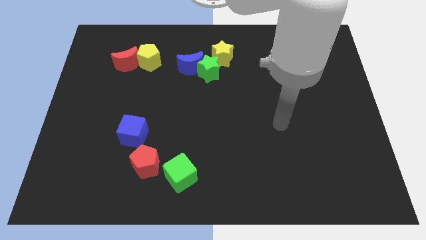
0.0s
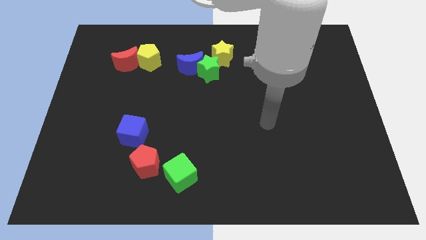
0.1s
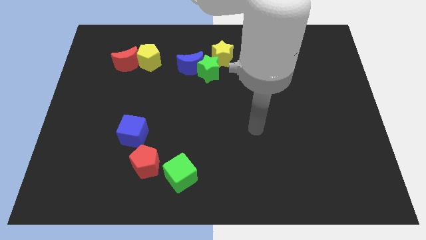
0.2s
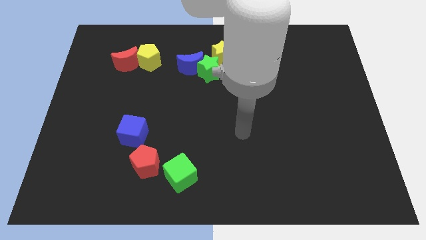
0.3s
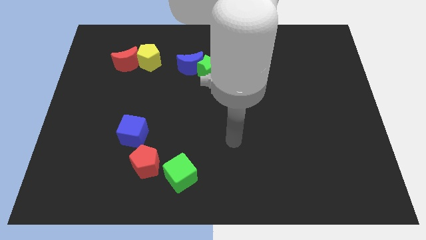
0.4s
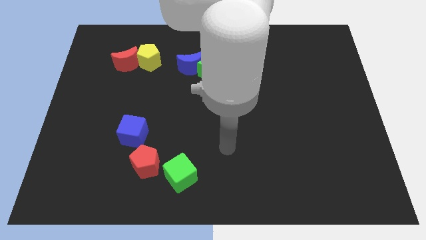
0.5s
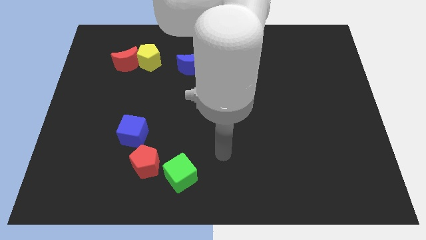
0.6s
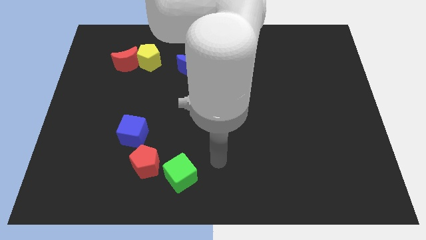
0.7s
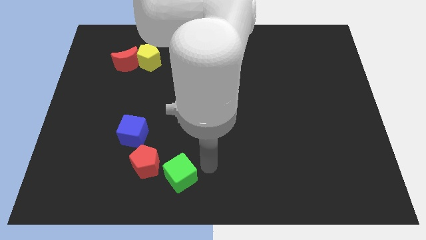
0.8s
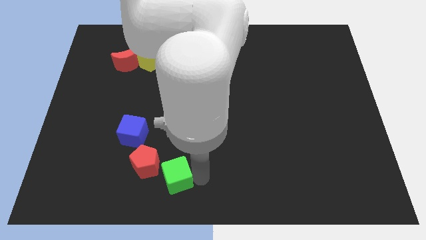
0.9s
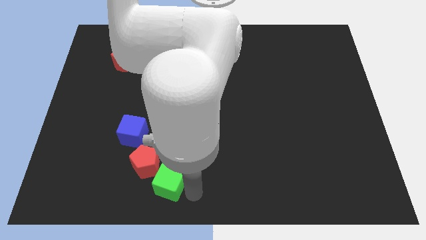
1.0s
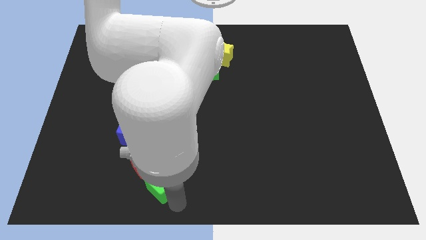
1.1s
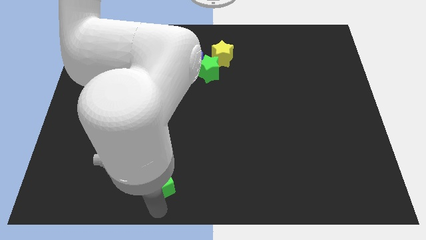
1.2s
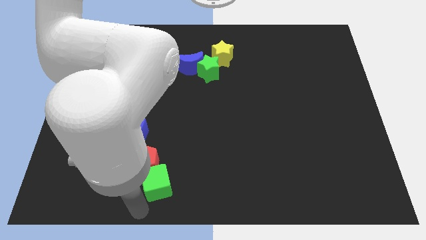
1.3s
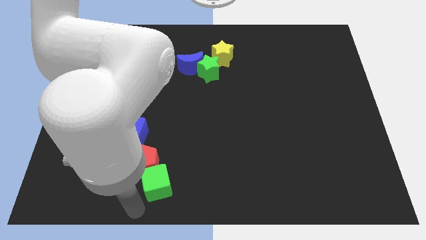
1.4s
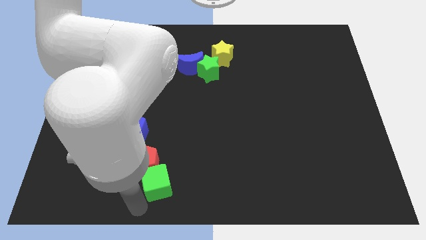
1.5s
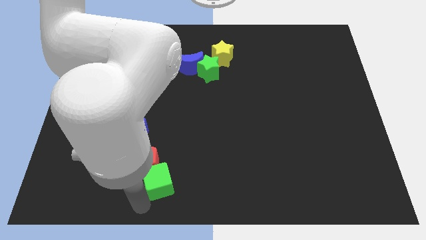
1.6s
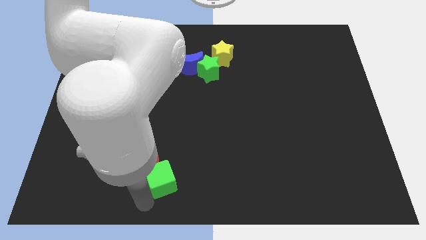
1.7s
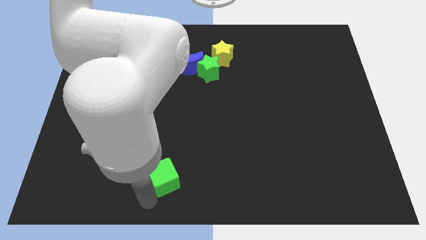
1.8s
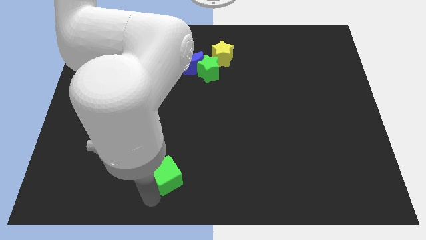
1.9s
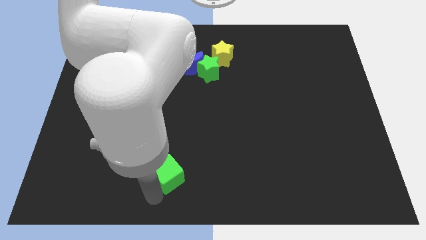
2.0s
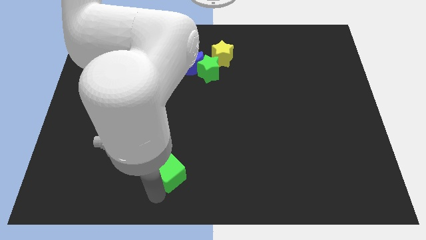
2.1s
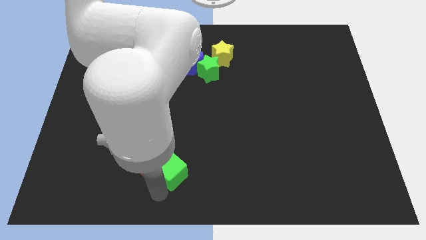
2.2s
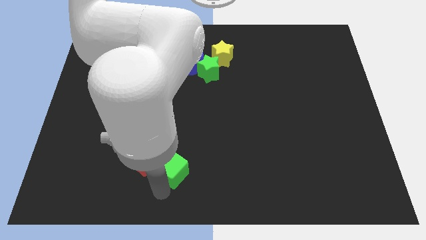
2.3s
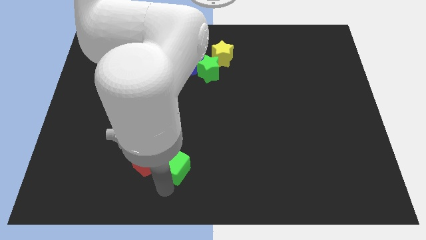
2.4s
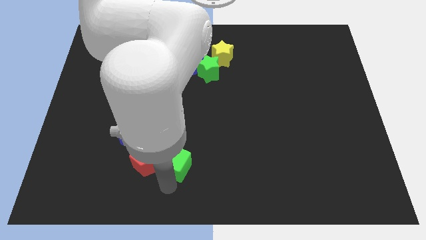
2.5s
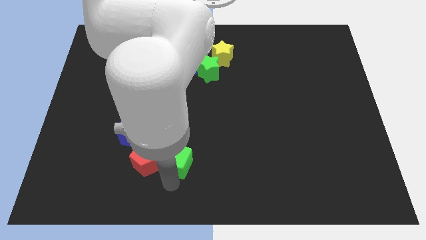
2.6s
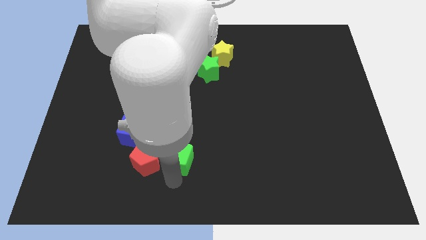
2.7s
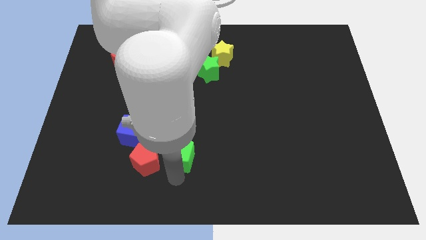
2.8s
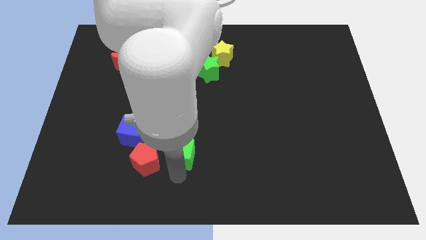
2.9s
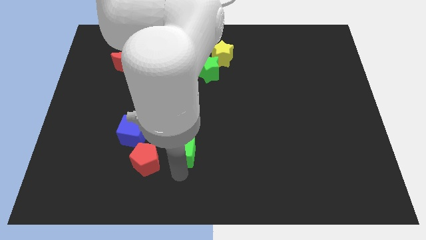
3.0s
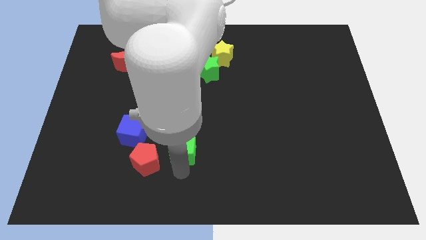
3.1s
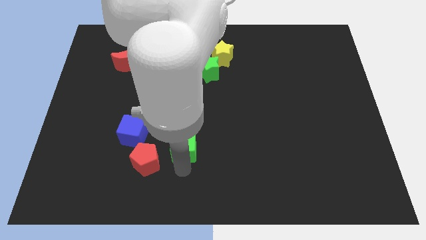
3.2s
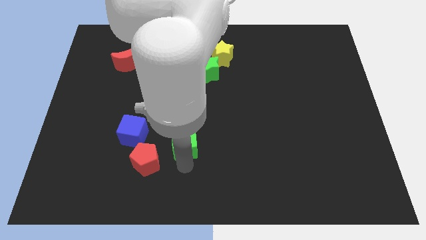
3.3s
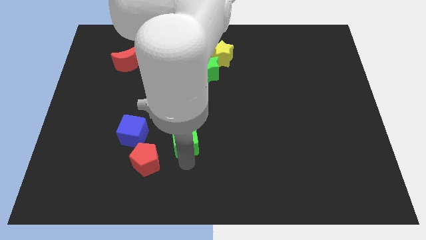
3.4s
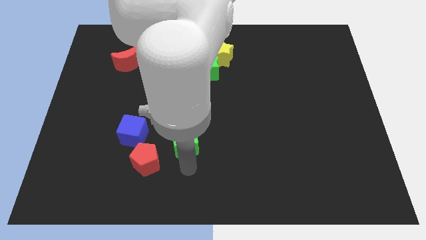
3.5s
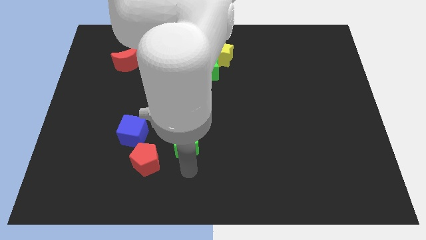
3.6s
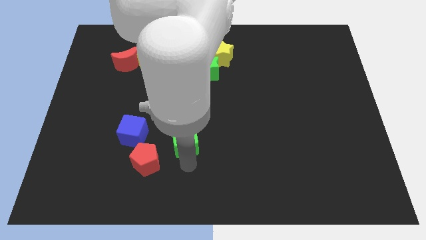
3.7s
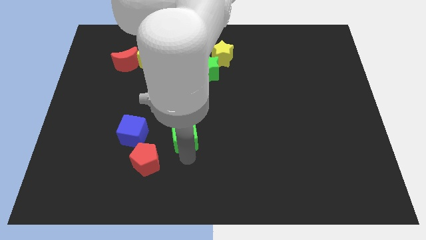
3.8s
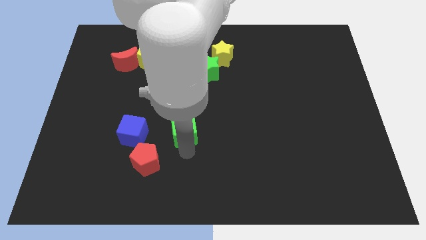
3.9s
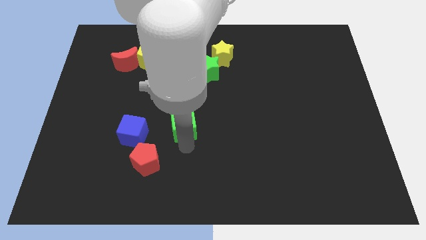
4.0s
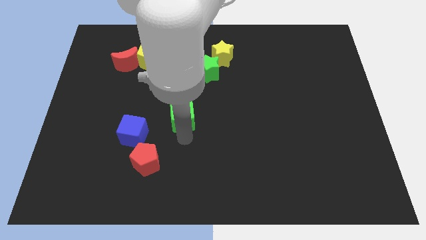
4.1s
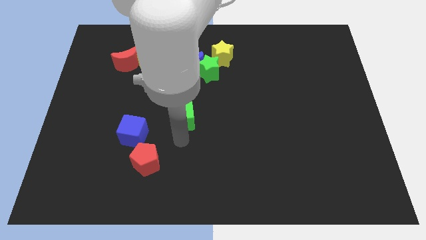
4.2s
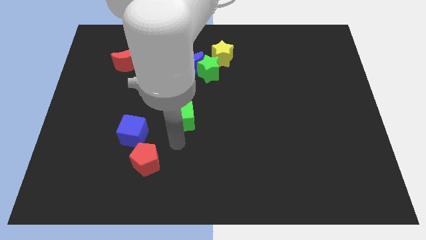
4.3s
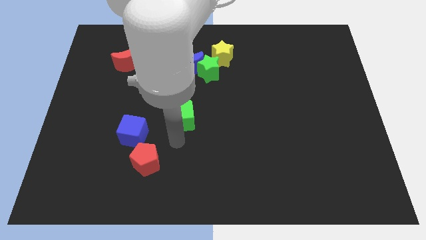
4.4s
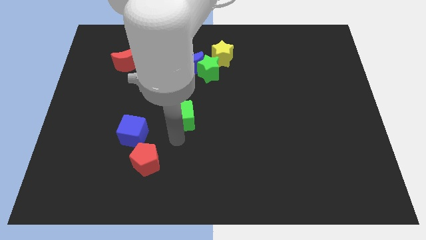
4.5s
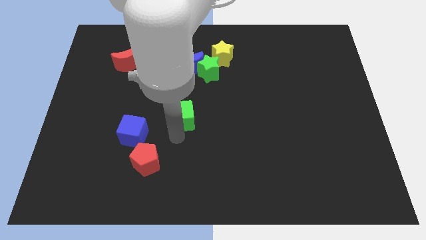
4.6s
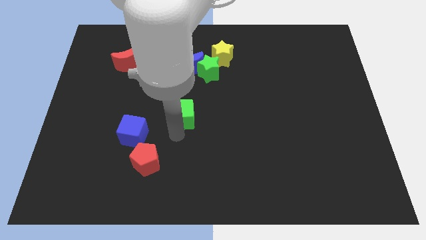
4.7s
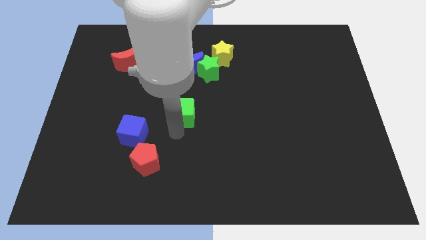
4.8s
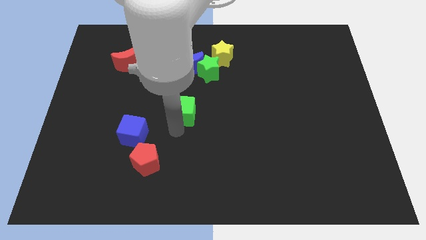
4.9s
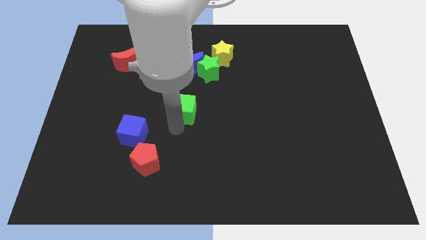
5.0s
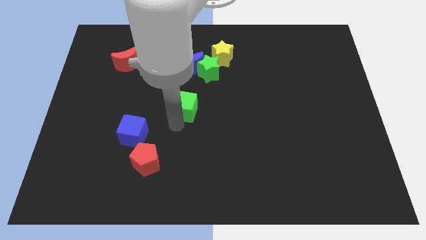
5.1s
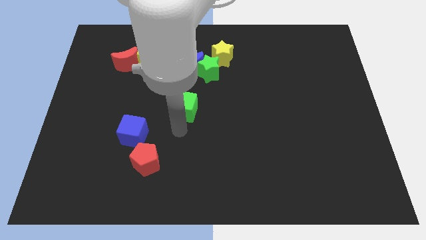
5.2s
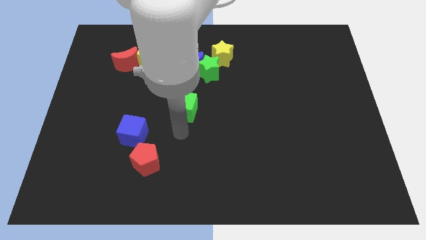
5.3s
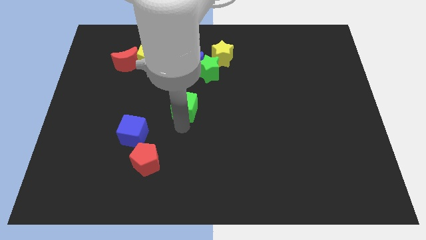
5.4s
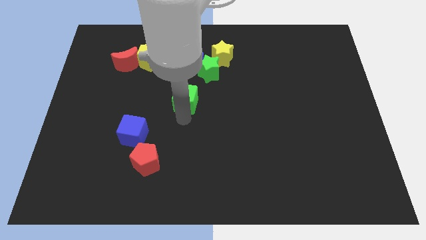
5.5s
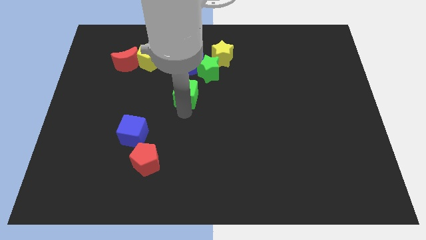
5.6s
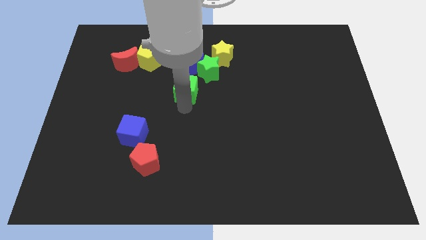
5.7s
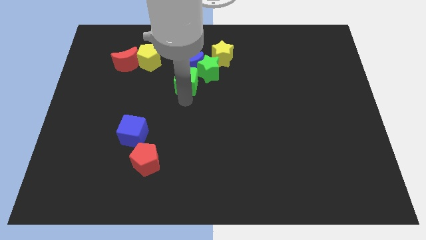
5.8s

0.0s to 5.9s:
push the green cube to the blue moon

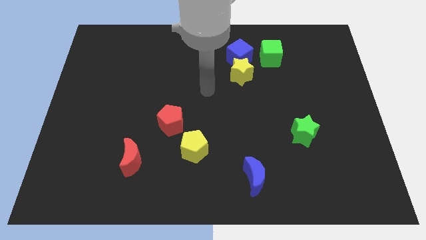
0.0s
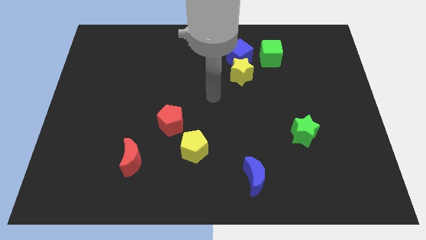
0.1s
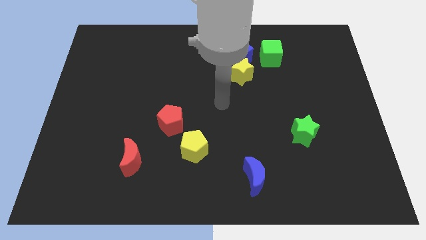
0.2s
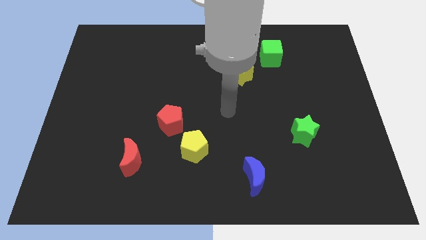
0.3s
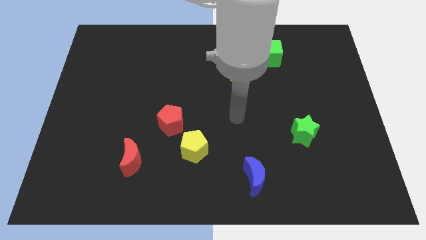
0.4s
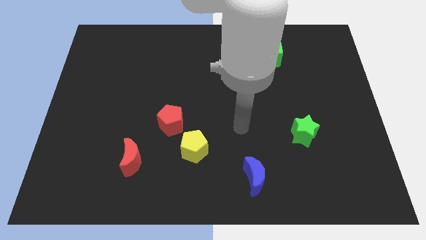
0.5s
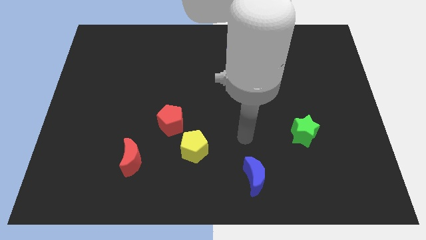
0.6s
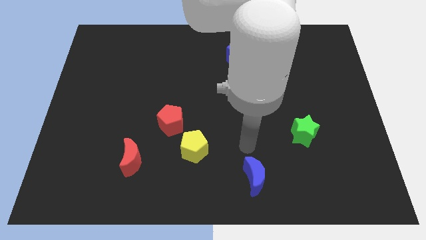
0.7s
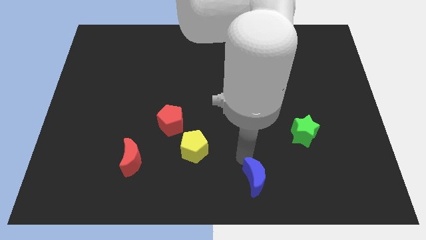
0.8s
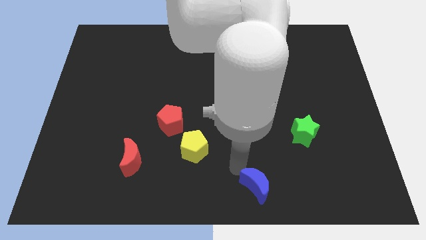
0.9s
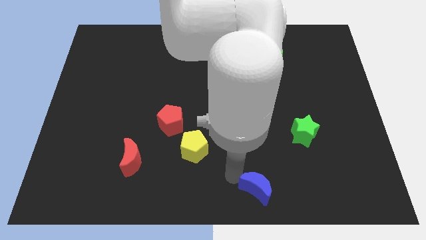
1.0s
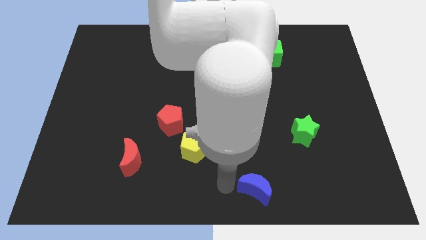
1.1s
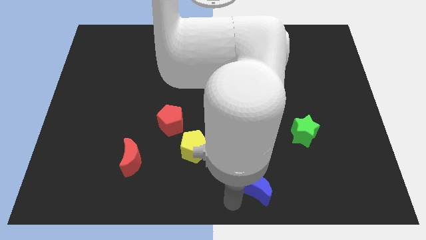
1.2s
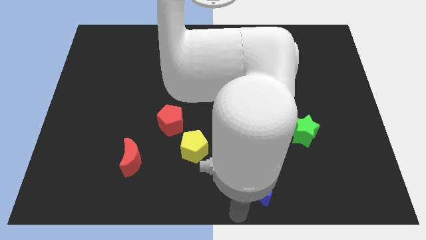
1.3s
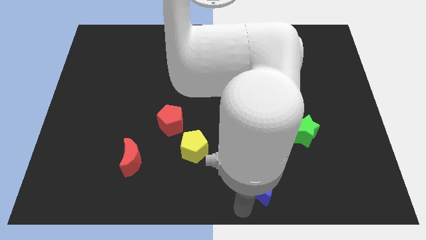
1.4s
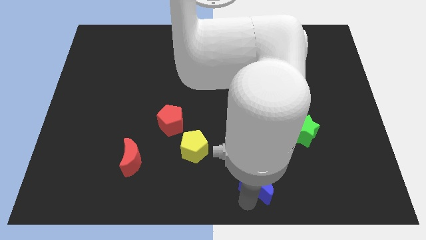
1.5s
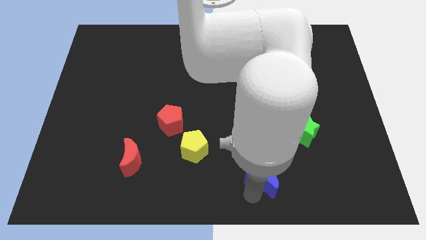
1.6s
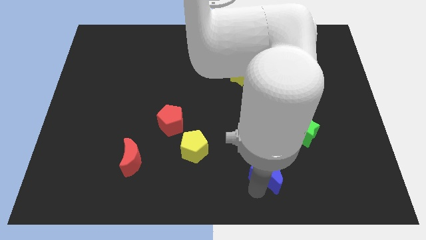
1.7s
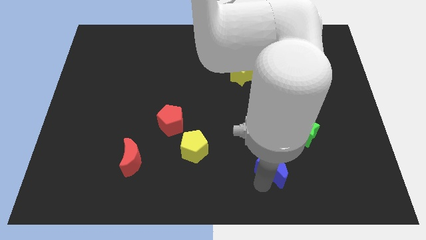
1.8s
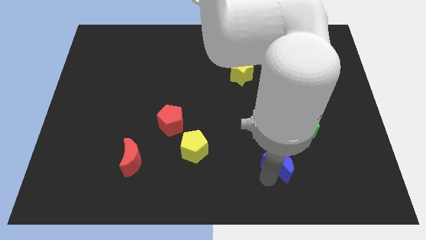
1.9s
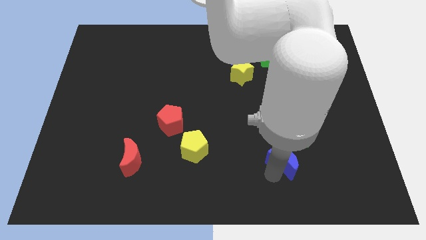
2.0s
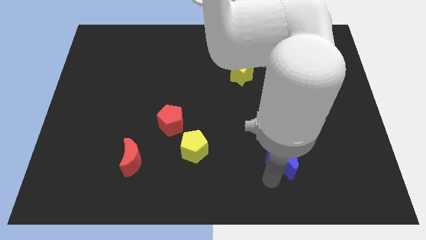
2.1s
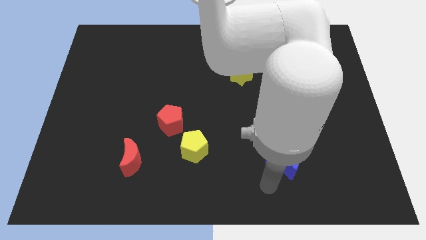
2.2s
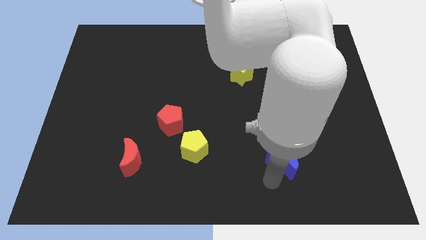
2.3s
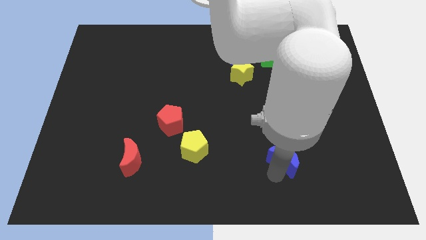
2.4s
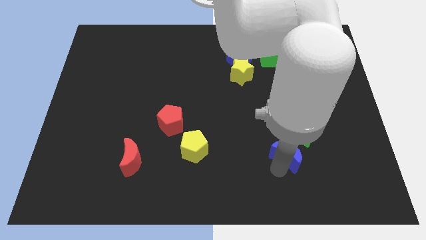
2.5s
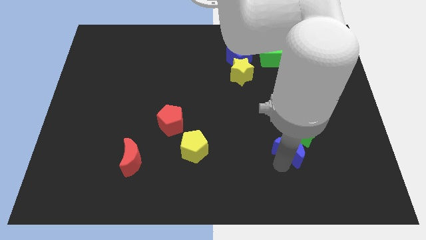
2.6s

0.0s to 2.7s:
move the blue moon next to the green star
